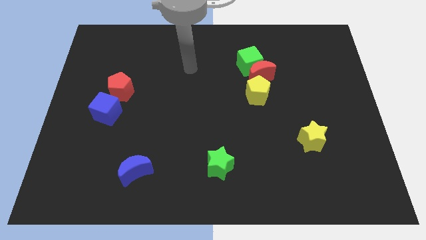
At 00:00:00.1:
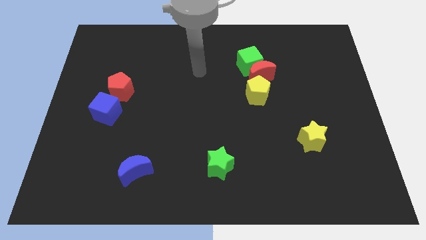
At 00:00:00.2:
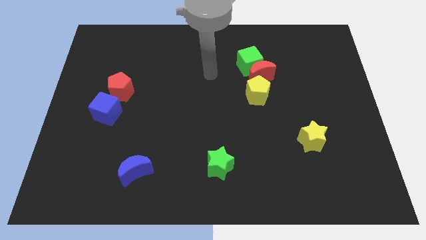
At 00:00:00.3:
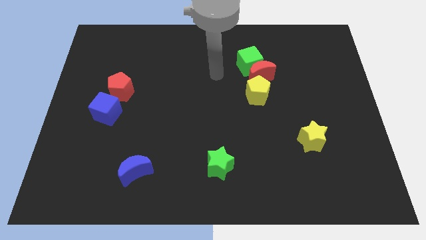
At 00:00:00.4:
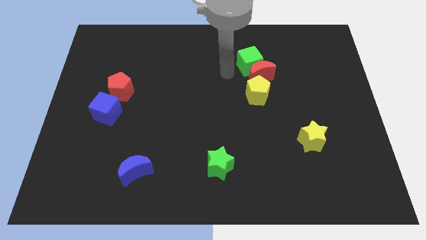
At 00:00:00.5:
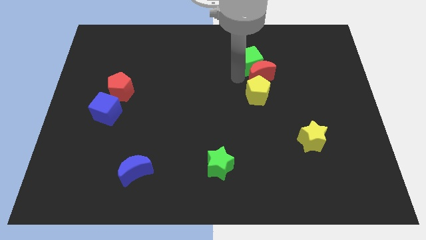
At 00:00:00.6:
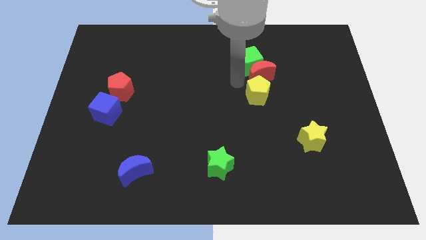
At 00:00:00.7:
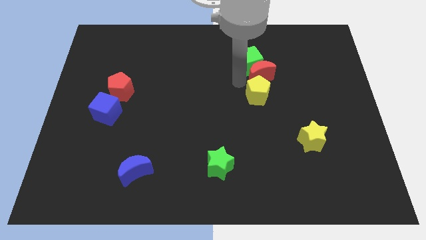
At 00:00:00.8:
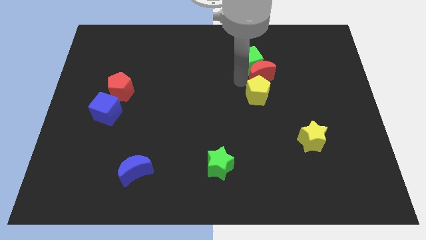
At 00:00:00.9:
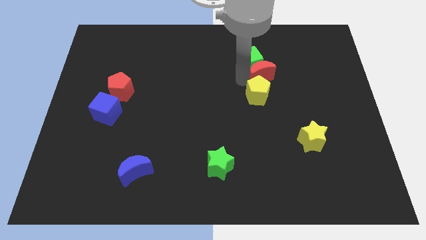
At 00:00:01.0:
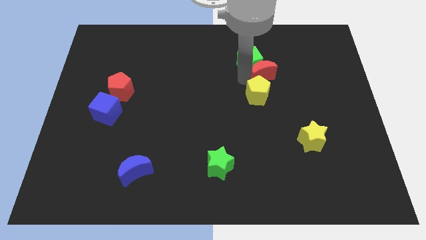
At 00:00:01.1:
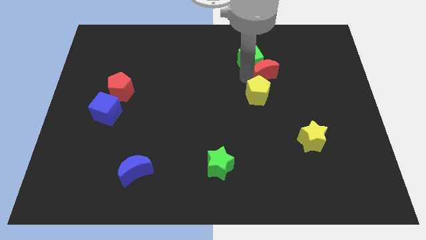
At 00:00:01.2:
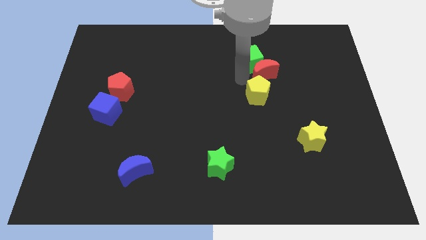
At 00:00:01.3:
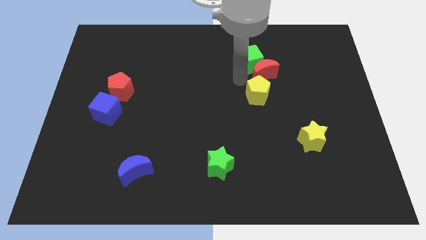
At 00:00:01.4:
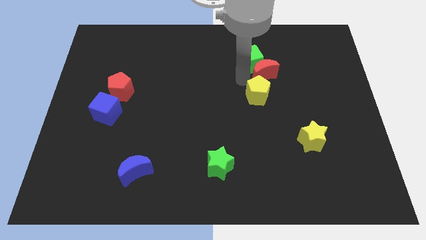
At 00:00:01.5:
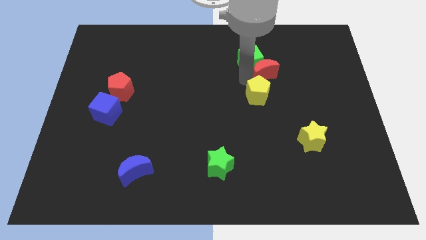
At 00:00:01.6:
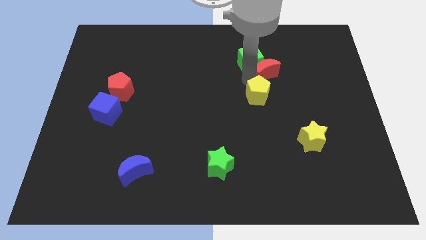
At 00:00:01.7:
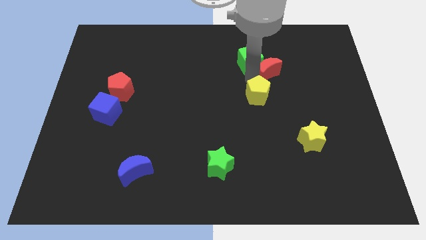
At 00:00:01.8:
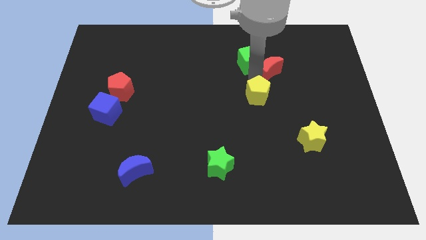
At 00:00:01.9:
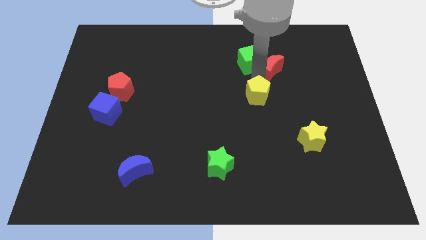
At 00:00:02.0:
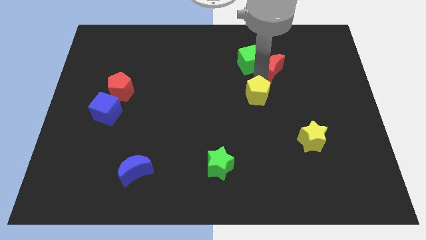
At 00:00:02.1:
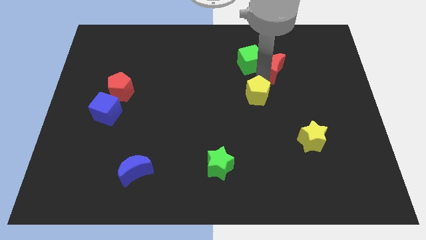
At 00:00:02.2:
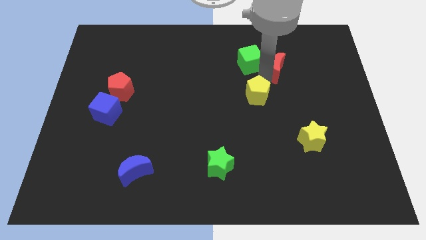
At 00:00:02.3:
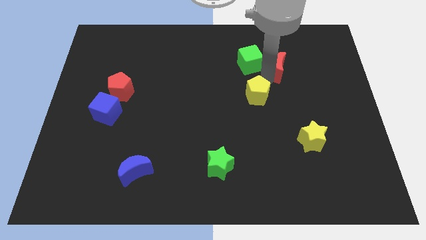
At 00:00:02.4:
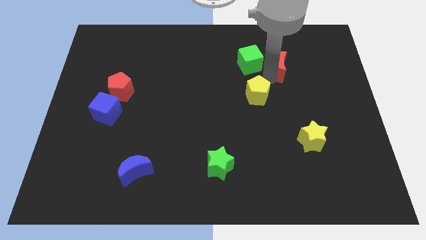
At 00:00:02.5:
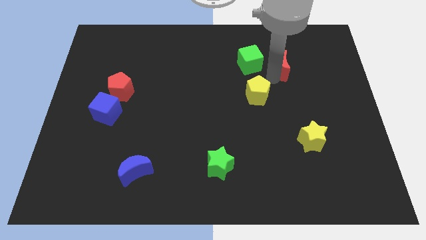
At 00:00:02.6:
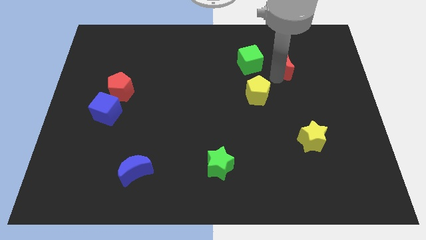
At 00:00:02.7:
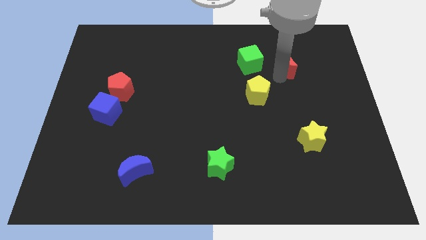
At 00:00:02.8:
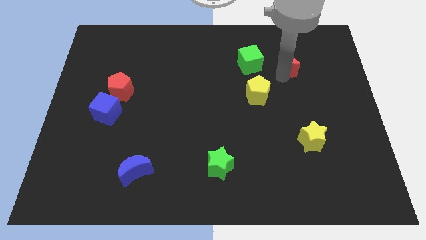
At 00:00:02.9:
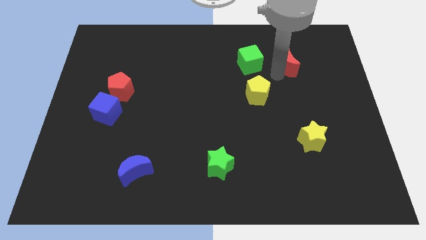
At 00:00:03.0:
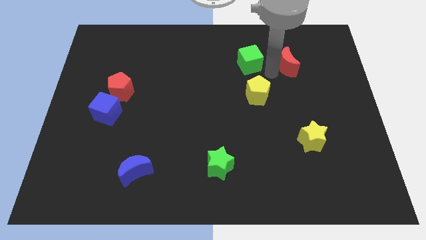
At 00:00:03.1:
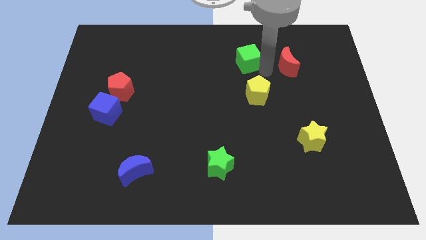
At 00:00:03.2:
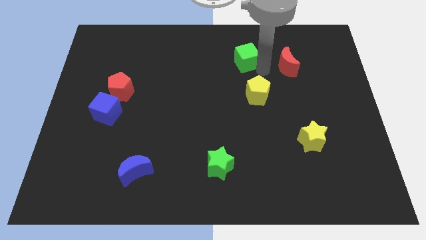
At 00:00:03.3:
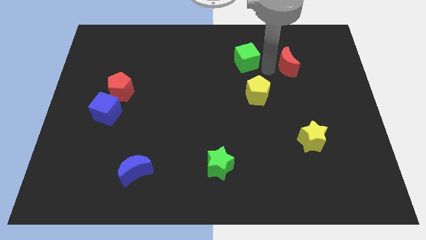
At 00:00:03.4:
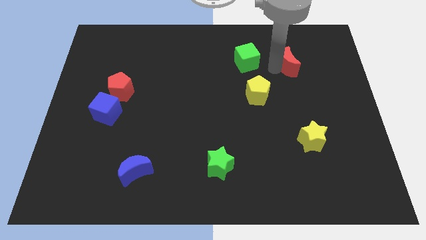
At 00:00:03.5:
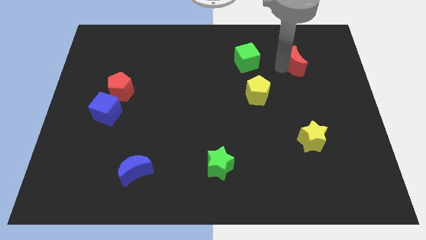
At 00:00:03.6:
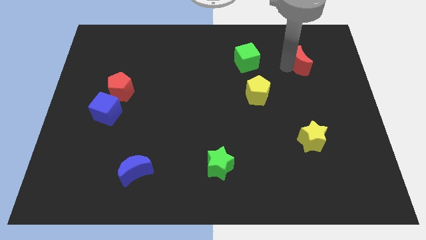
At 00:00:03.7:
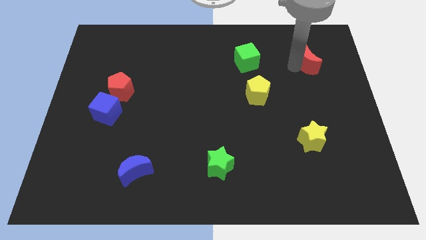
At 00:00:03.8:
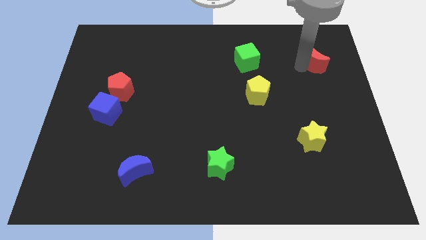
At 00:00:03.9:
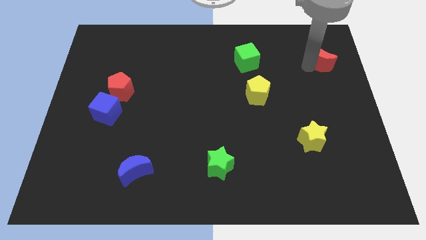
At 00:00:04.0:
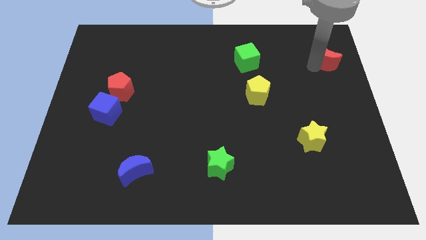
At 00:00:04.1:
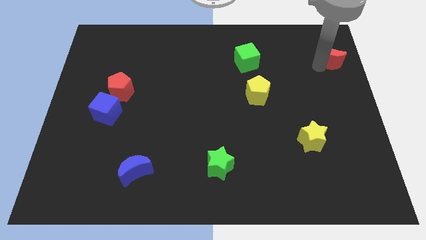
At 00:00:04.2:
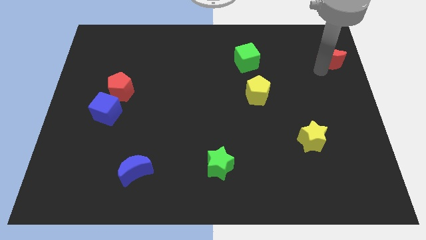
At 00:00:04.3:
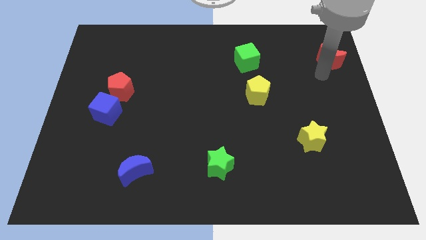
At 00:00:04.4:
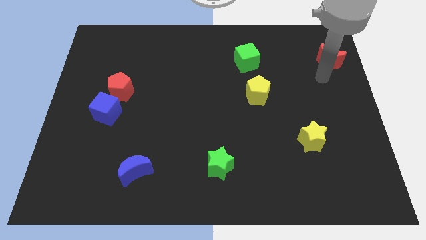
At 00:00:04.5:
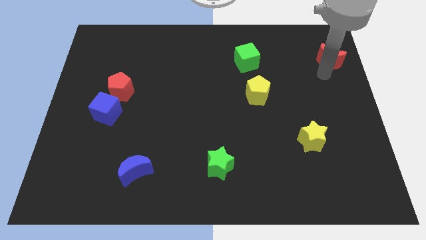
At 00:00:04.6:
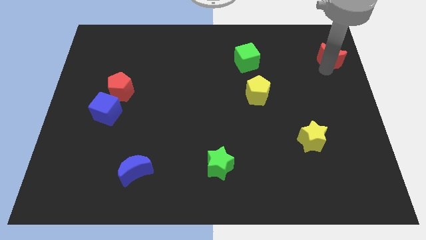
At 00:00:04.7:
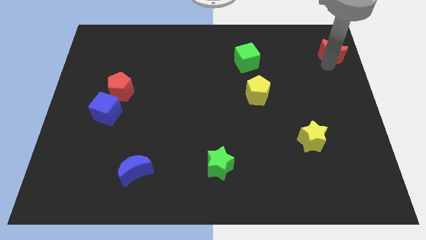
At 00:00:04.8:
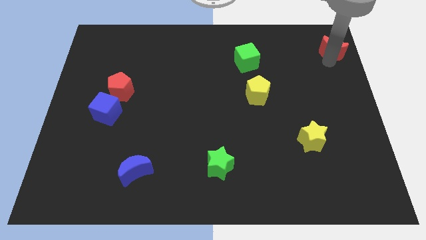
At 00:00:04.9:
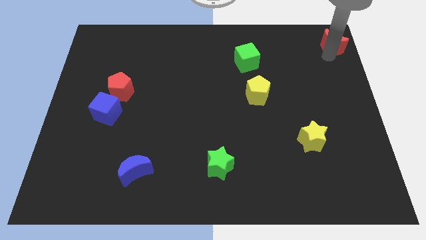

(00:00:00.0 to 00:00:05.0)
move the red moon to the upper right corner

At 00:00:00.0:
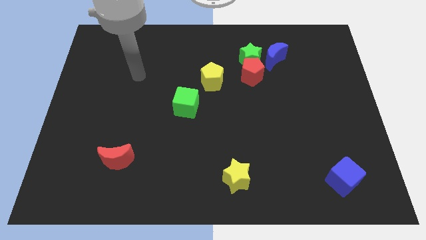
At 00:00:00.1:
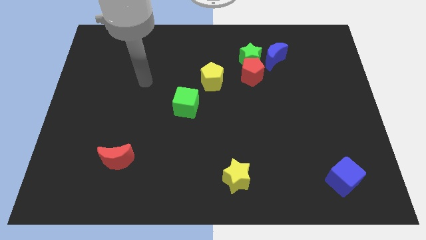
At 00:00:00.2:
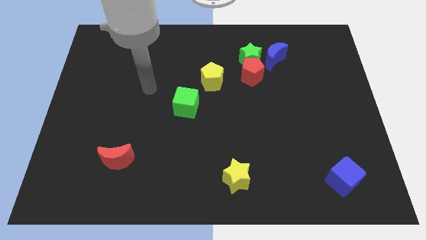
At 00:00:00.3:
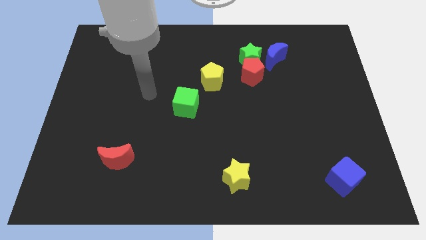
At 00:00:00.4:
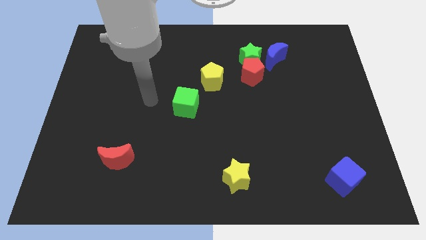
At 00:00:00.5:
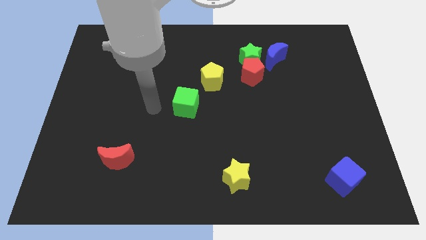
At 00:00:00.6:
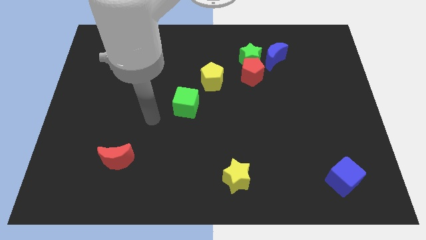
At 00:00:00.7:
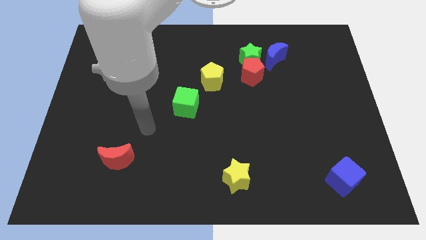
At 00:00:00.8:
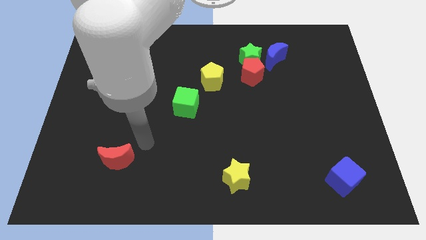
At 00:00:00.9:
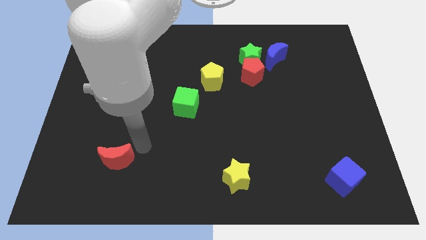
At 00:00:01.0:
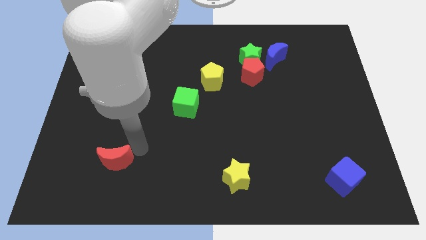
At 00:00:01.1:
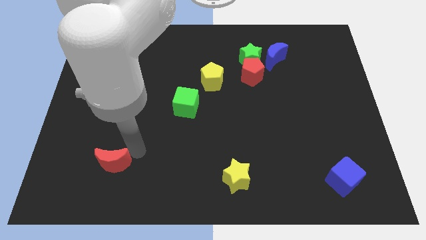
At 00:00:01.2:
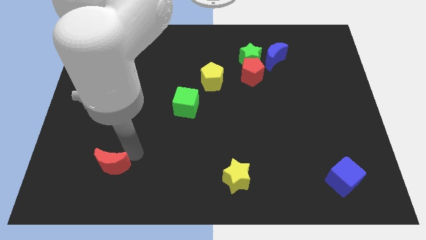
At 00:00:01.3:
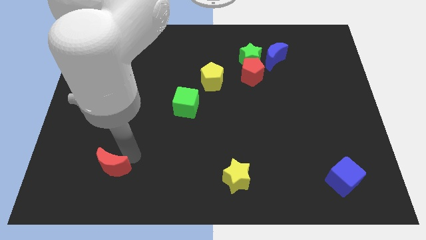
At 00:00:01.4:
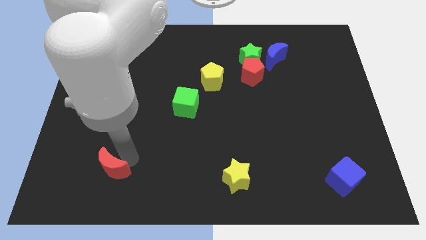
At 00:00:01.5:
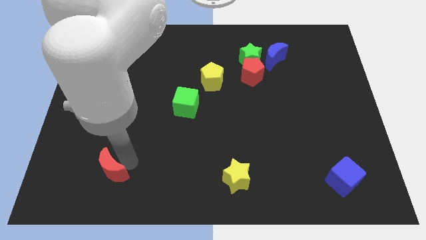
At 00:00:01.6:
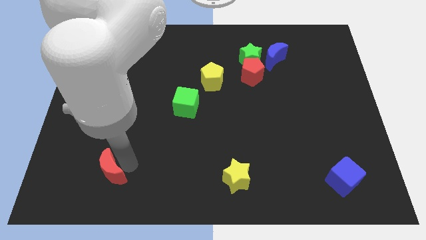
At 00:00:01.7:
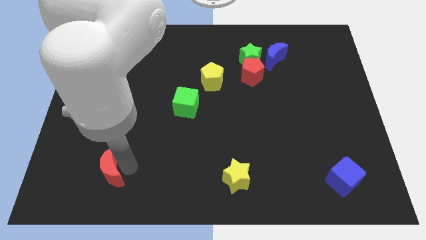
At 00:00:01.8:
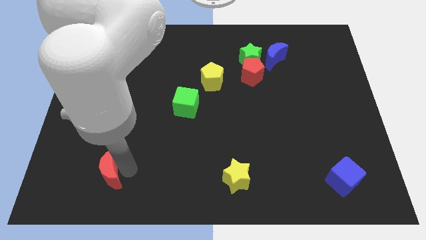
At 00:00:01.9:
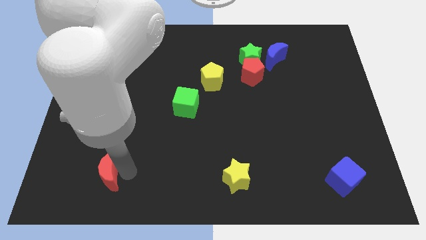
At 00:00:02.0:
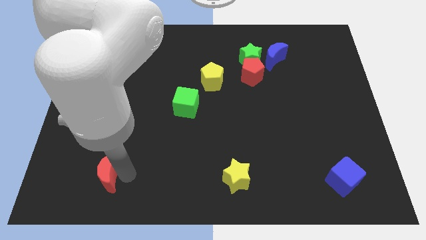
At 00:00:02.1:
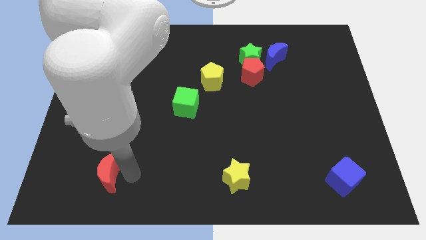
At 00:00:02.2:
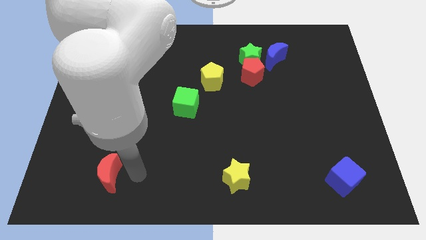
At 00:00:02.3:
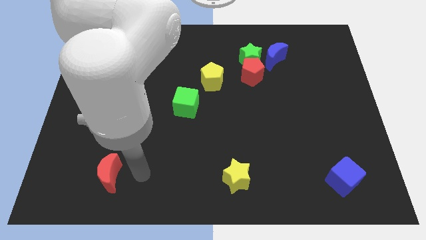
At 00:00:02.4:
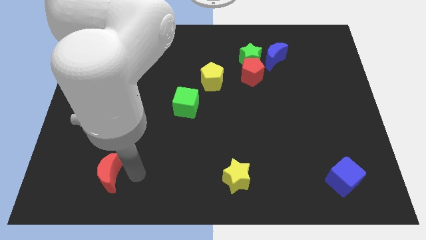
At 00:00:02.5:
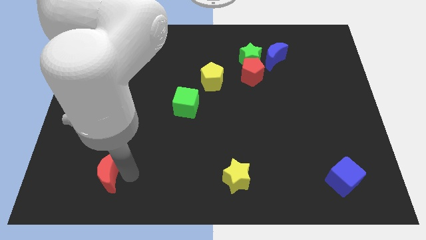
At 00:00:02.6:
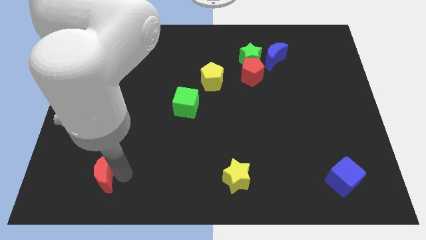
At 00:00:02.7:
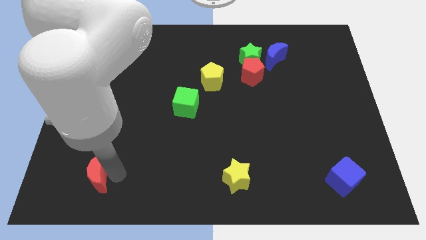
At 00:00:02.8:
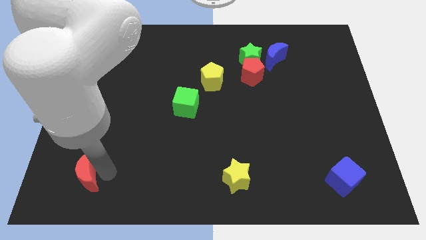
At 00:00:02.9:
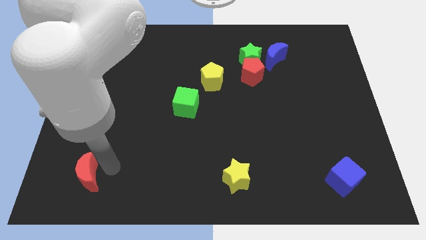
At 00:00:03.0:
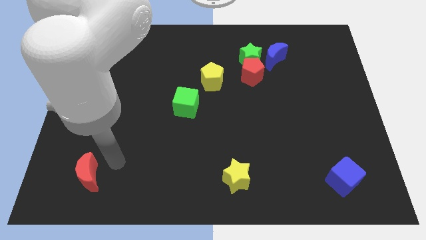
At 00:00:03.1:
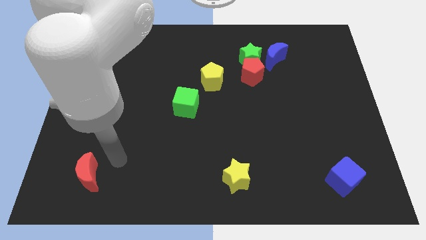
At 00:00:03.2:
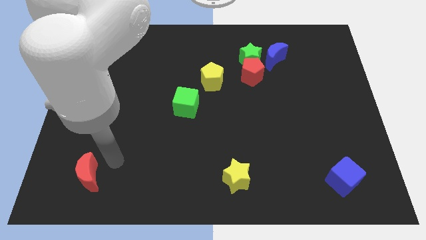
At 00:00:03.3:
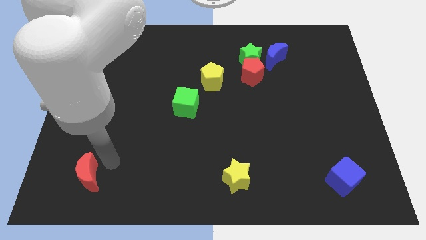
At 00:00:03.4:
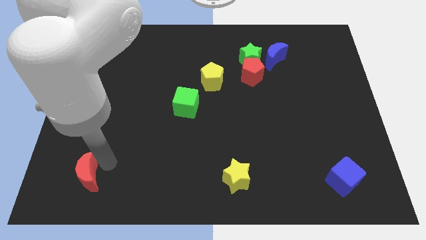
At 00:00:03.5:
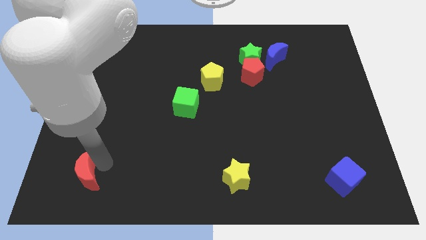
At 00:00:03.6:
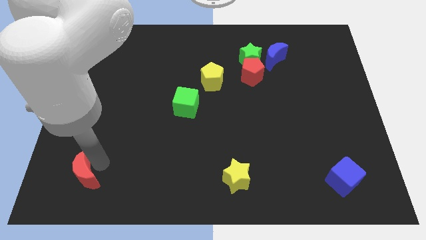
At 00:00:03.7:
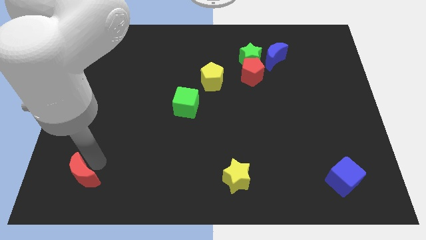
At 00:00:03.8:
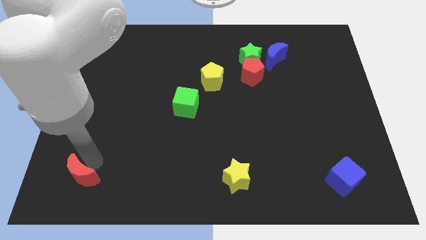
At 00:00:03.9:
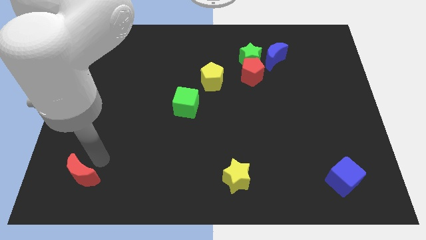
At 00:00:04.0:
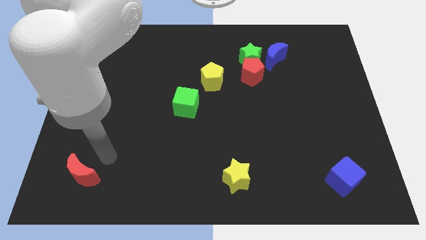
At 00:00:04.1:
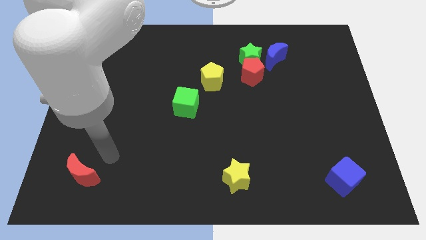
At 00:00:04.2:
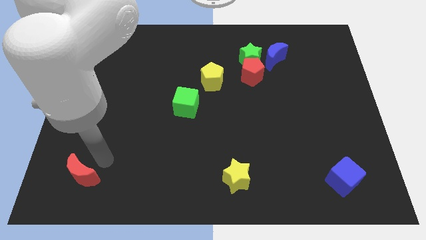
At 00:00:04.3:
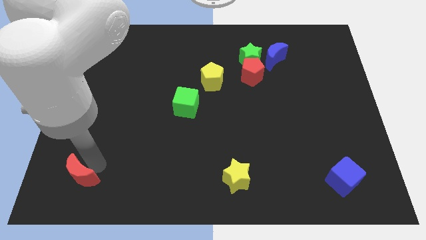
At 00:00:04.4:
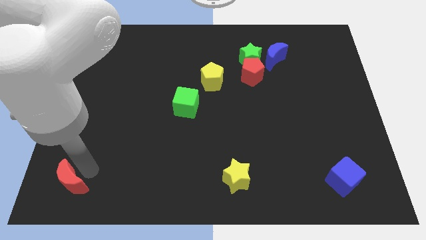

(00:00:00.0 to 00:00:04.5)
slide the red moon to the bottom left
